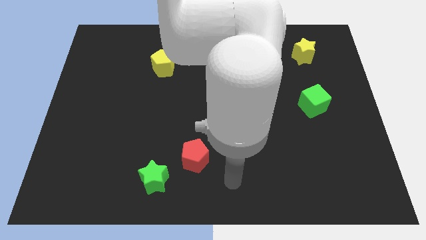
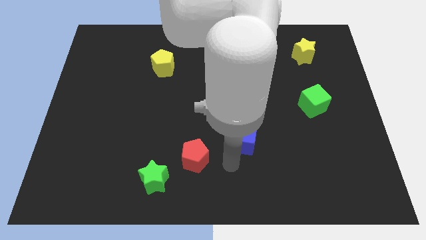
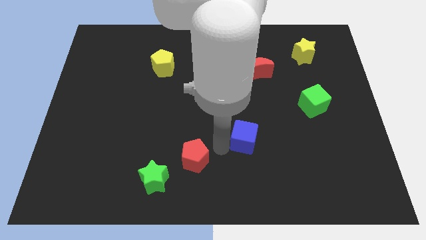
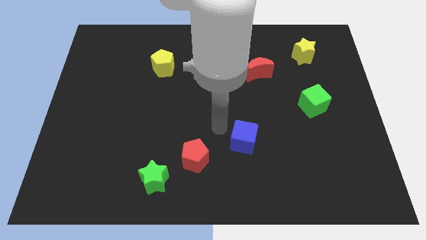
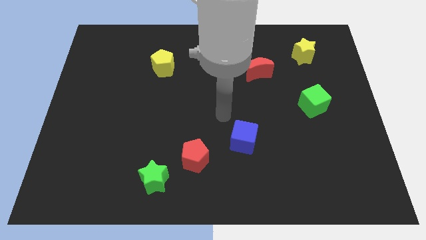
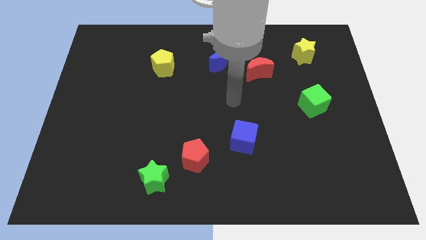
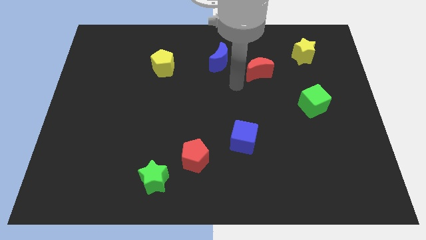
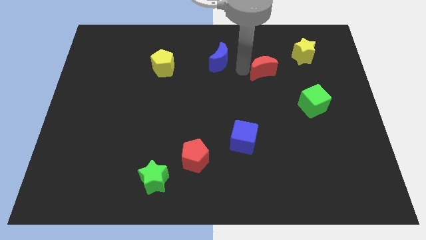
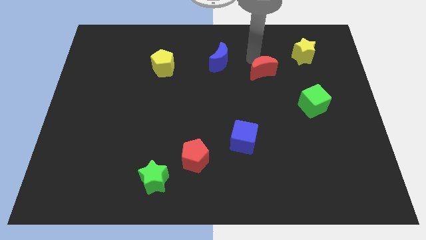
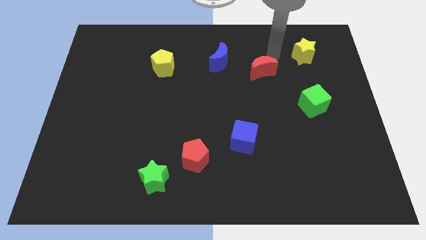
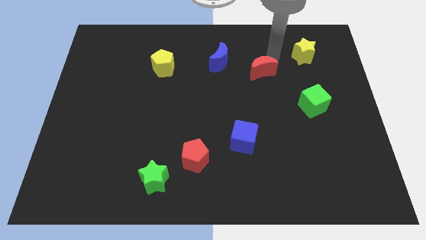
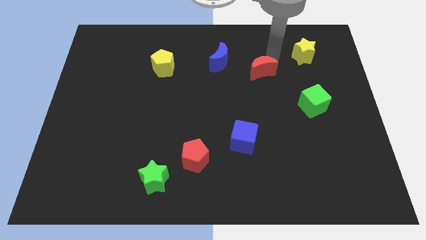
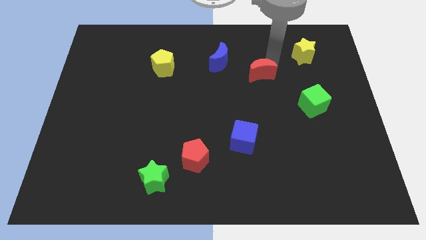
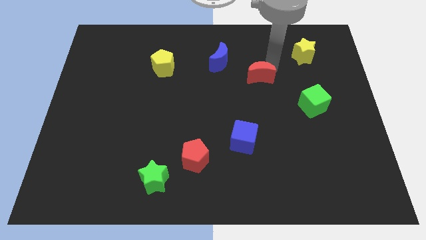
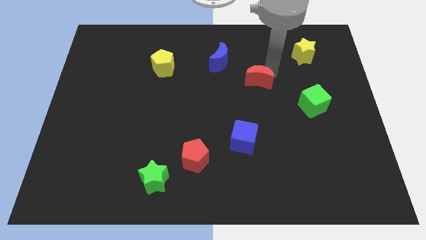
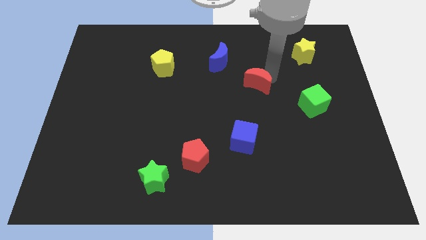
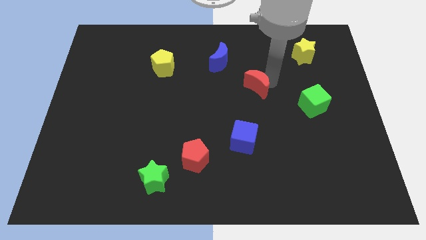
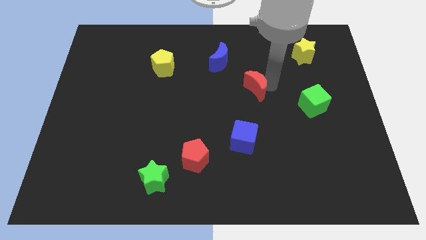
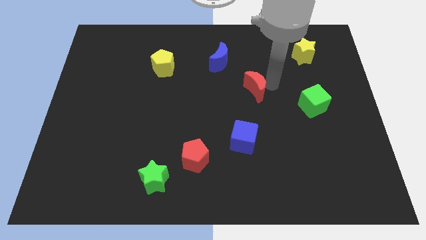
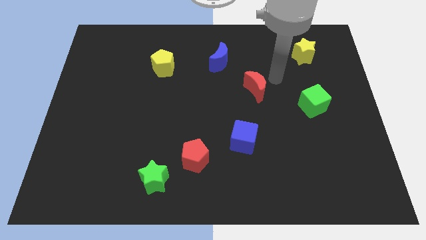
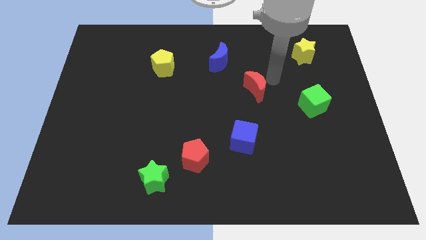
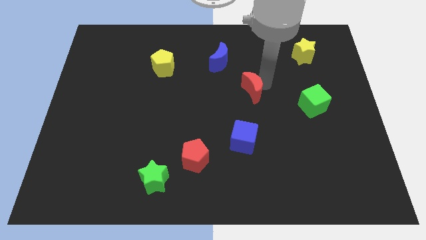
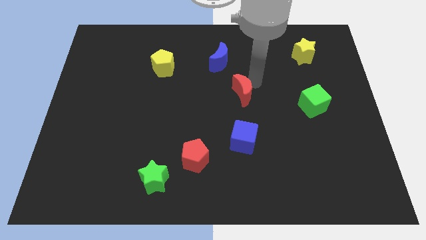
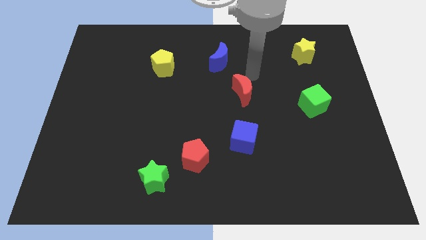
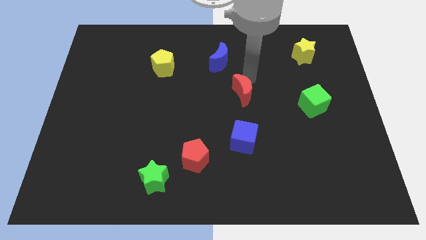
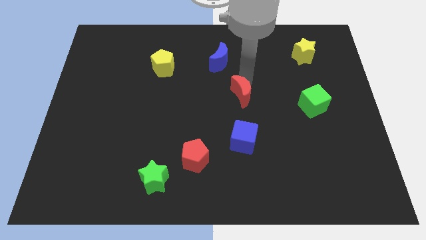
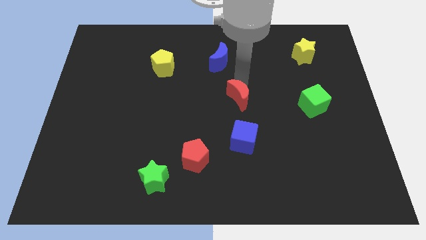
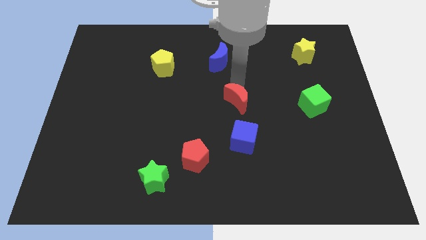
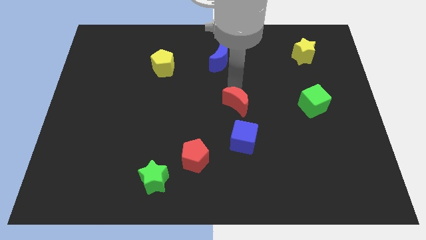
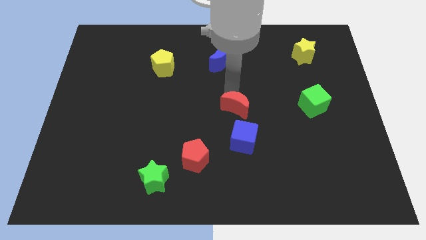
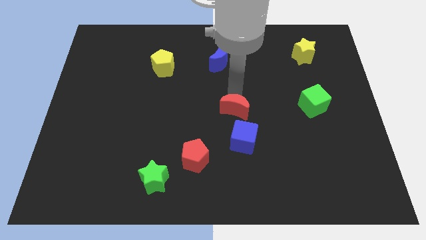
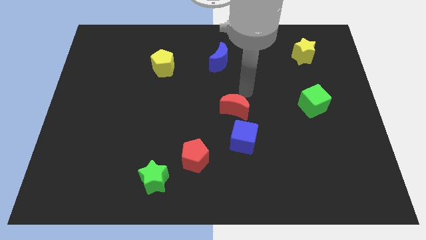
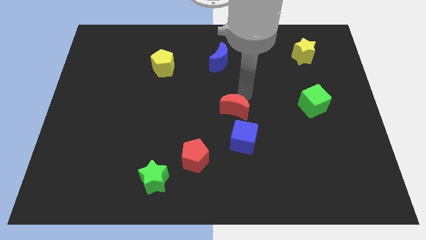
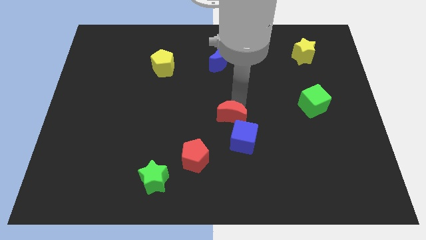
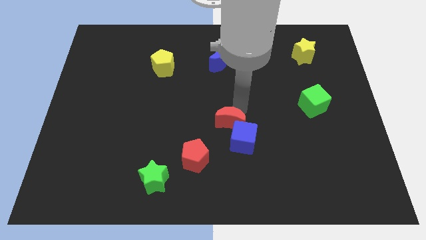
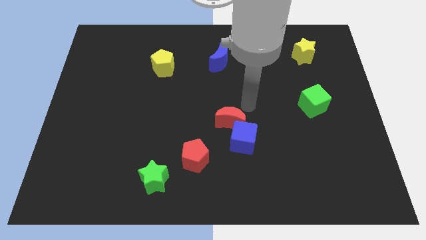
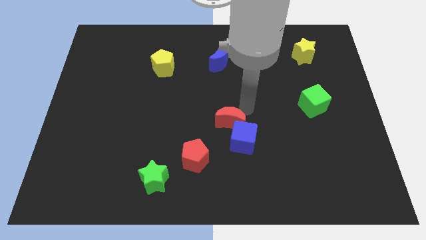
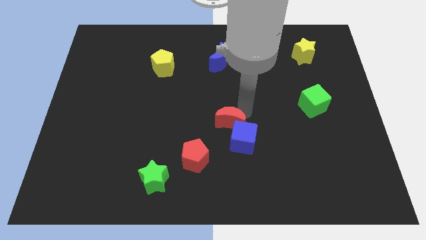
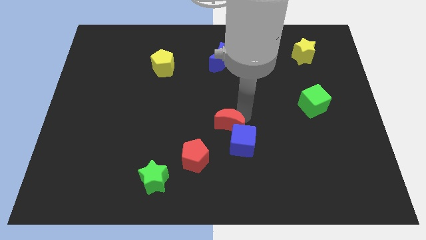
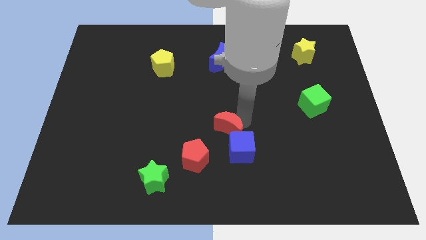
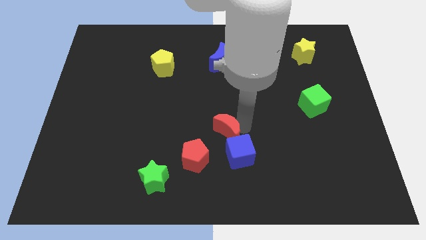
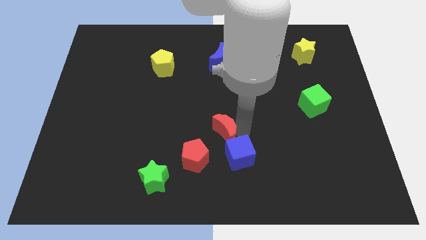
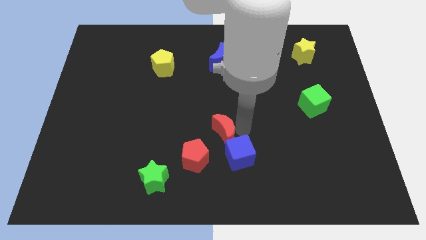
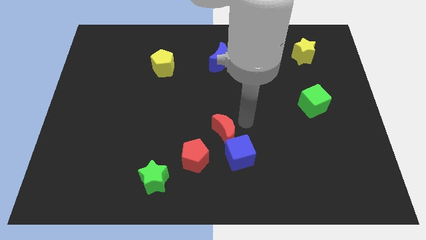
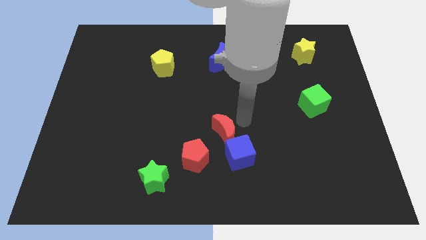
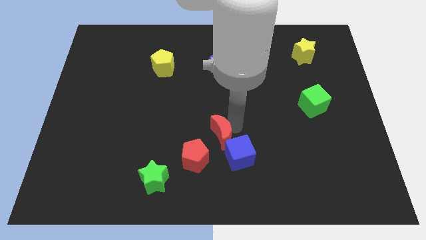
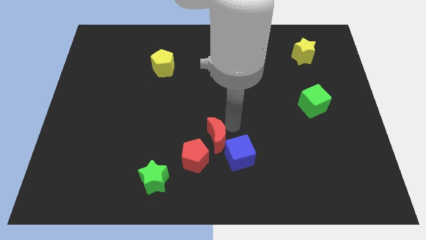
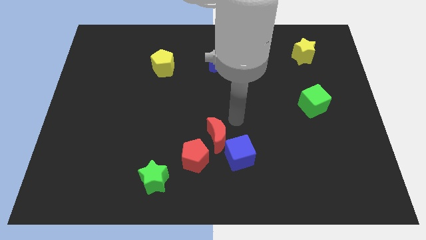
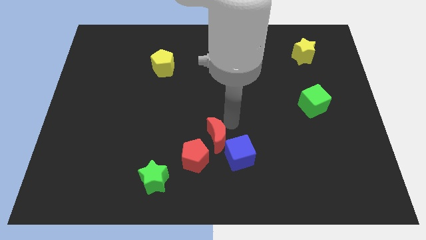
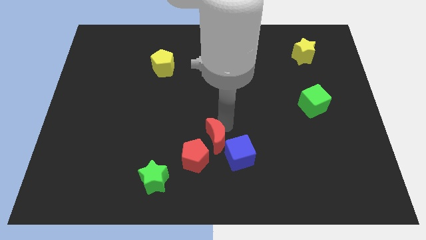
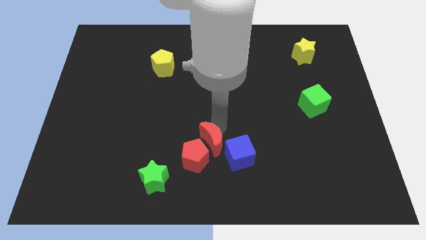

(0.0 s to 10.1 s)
put the red moon next to the red pentagon
